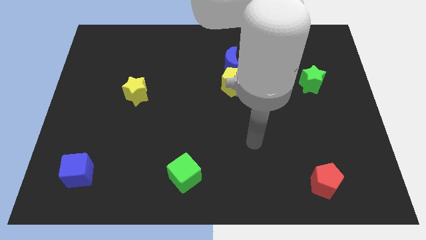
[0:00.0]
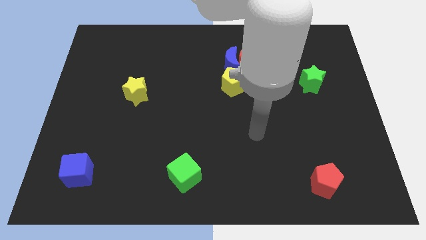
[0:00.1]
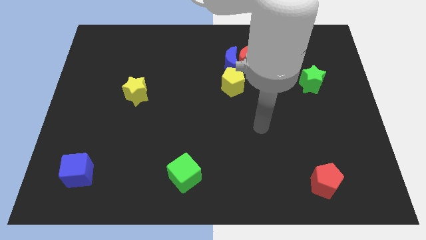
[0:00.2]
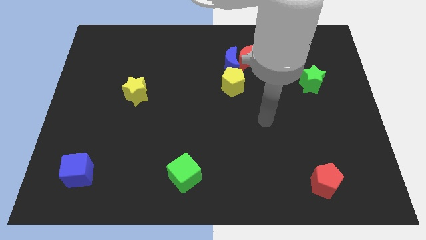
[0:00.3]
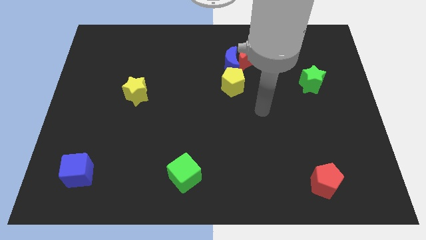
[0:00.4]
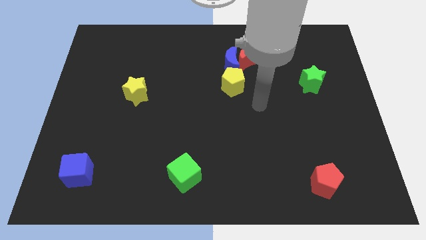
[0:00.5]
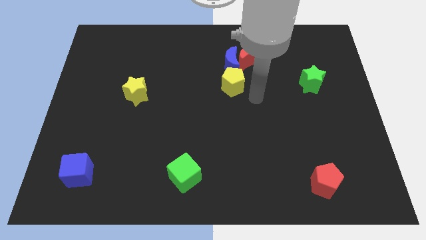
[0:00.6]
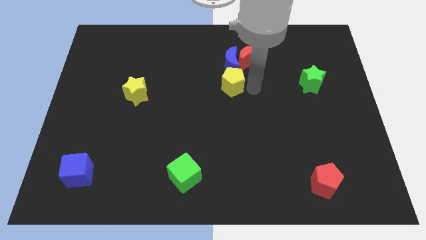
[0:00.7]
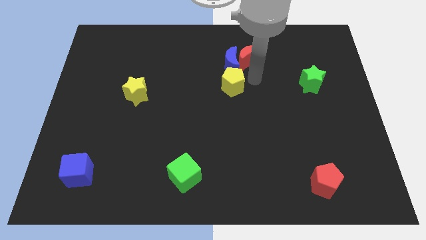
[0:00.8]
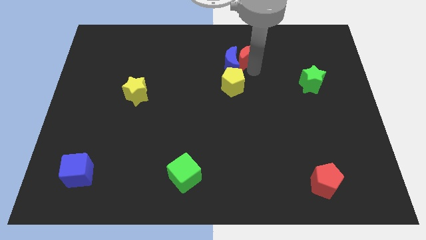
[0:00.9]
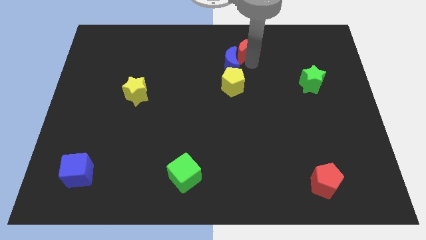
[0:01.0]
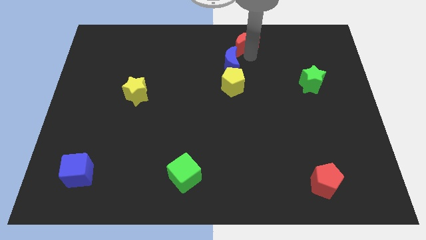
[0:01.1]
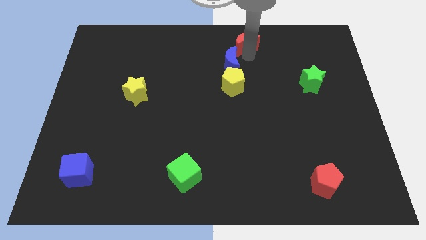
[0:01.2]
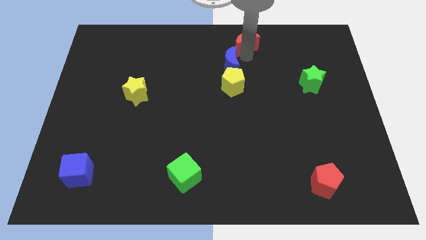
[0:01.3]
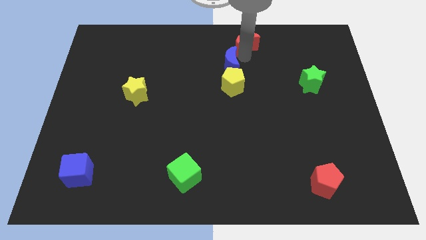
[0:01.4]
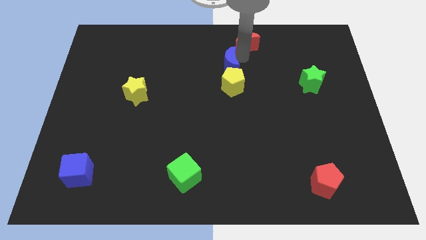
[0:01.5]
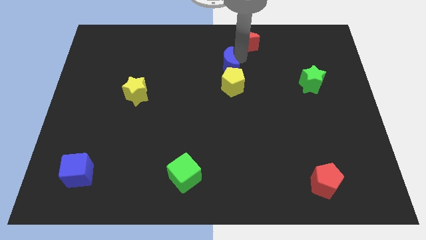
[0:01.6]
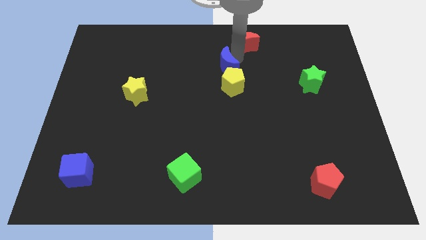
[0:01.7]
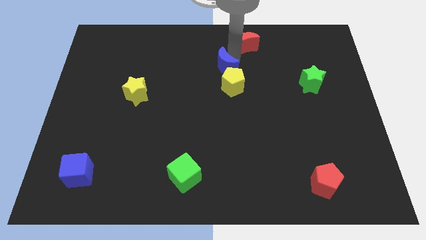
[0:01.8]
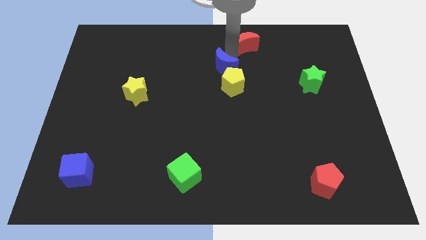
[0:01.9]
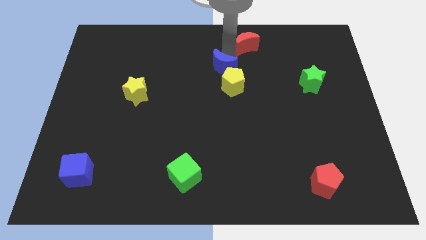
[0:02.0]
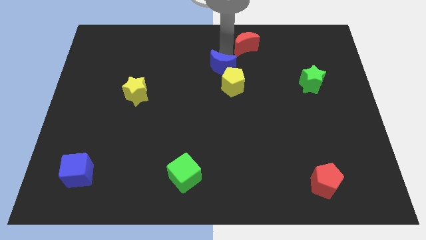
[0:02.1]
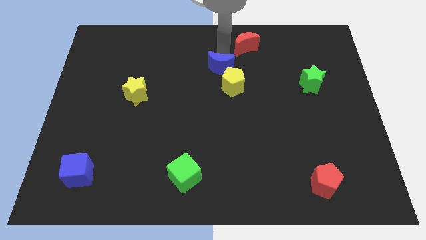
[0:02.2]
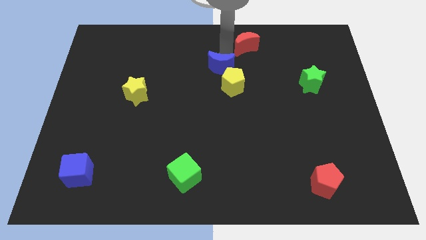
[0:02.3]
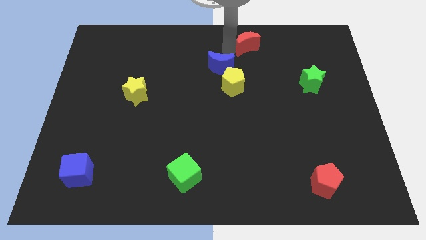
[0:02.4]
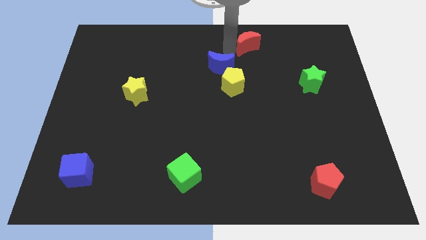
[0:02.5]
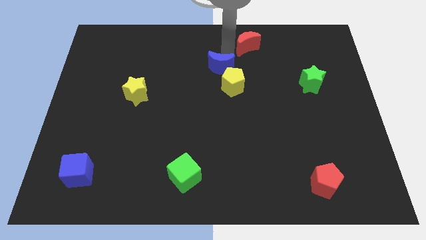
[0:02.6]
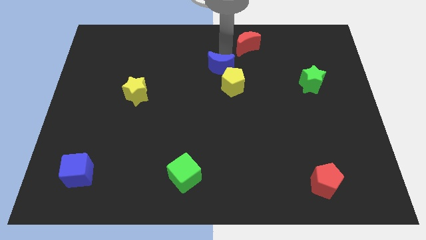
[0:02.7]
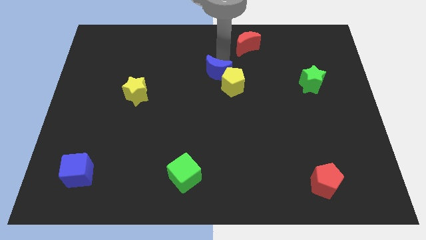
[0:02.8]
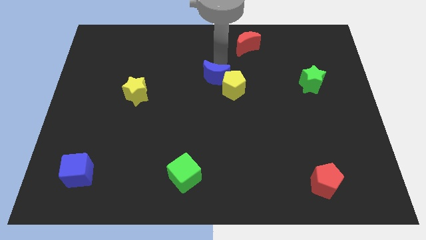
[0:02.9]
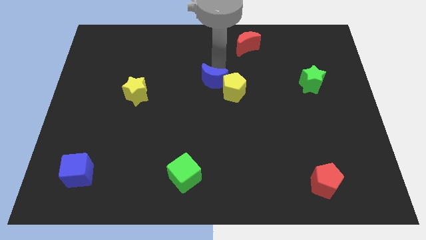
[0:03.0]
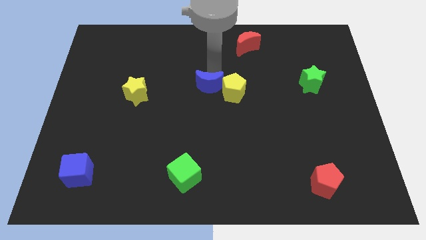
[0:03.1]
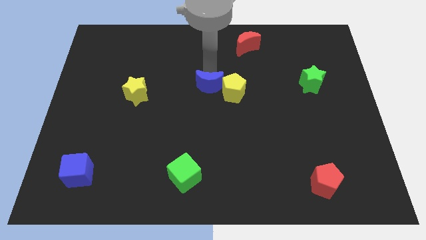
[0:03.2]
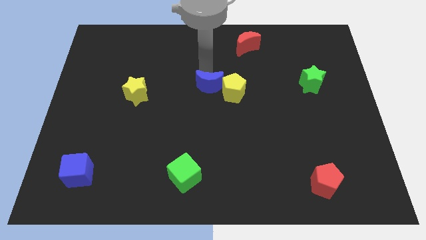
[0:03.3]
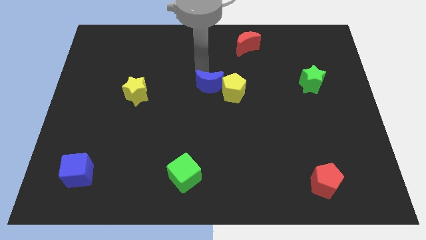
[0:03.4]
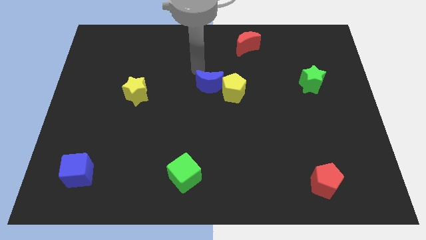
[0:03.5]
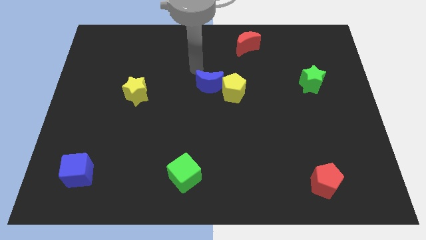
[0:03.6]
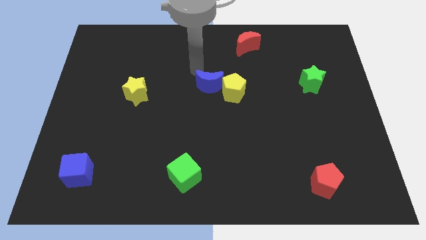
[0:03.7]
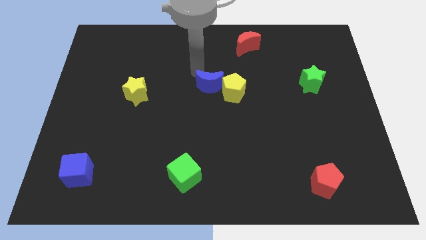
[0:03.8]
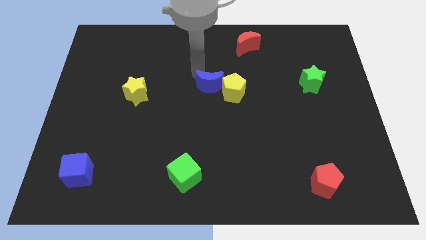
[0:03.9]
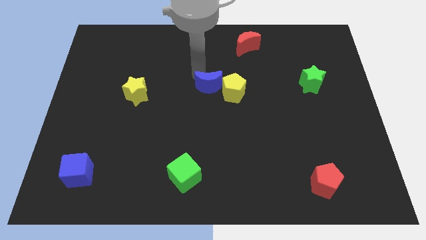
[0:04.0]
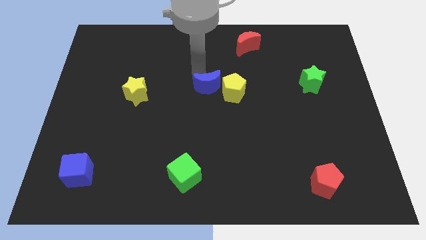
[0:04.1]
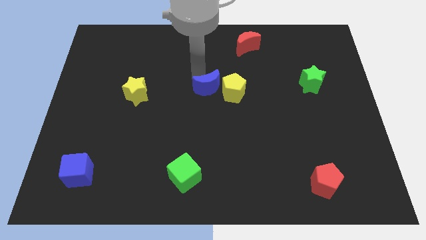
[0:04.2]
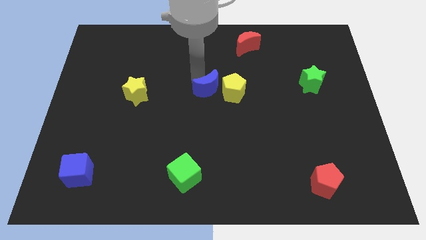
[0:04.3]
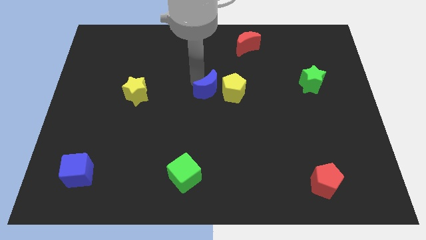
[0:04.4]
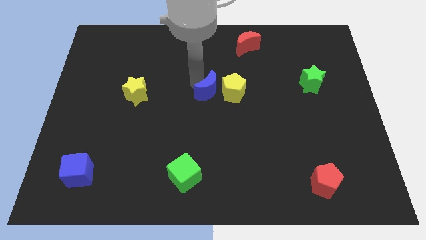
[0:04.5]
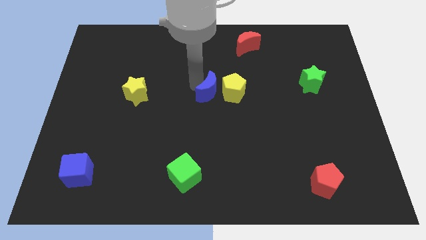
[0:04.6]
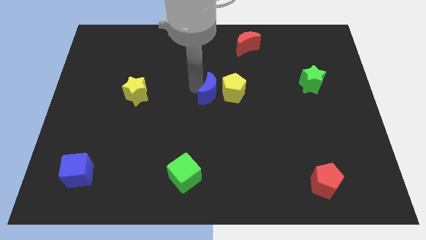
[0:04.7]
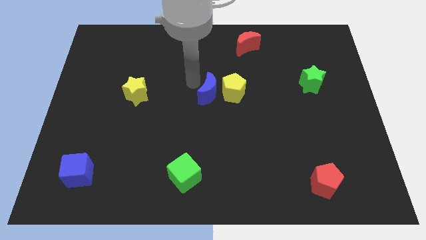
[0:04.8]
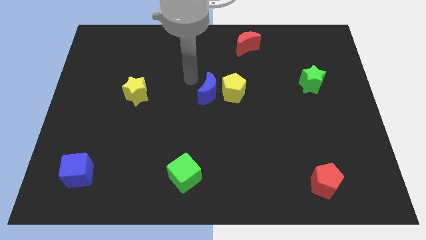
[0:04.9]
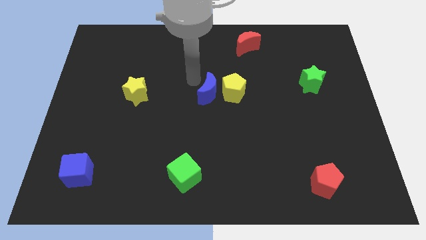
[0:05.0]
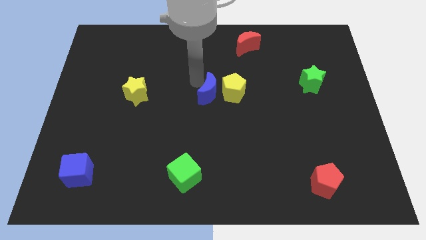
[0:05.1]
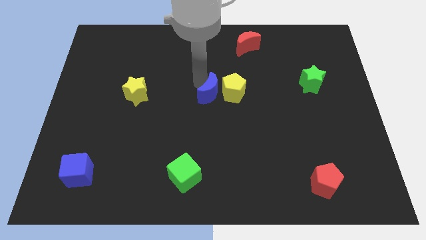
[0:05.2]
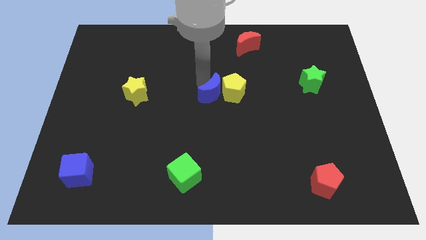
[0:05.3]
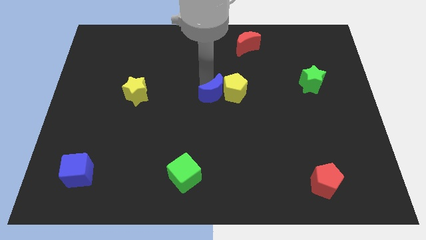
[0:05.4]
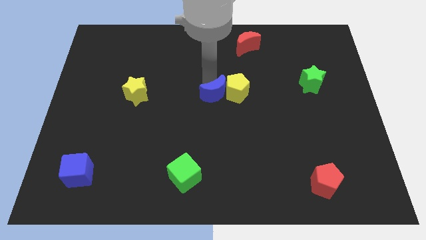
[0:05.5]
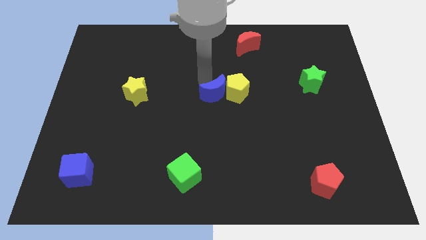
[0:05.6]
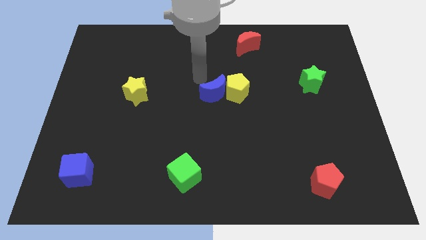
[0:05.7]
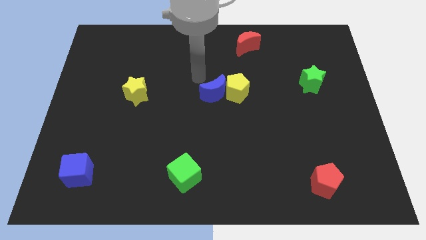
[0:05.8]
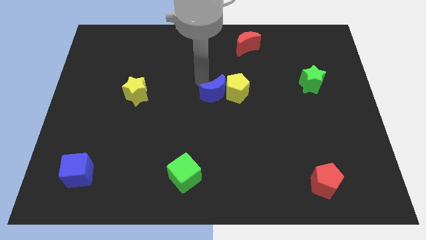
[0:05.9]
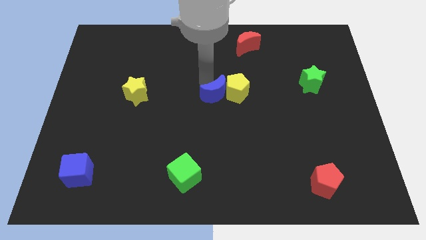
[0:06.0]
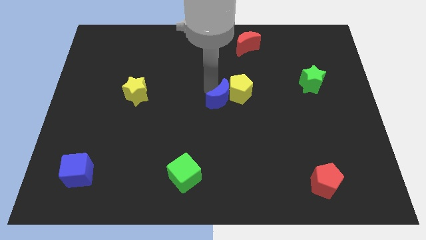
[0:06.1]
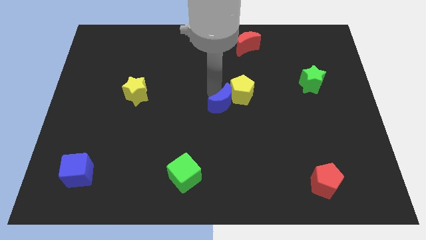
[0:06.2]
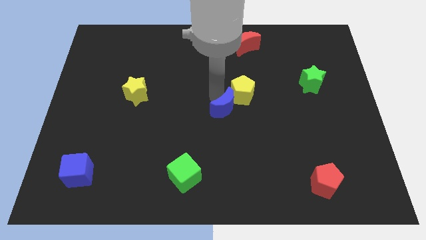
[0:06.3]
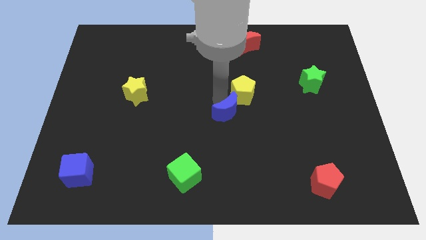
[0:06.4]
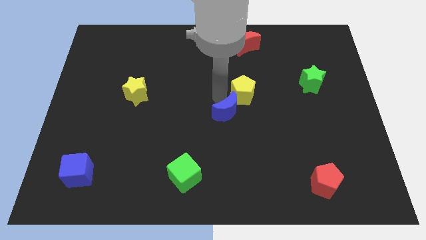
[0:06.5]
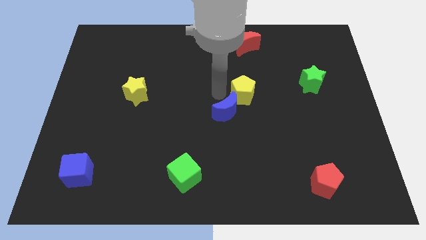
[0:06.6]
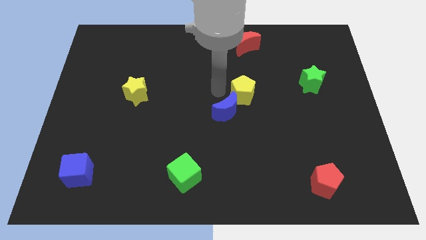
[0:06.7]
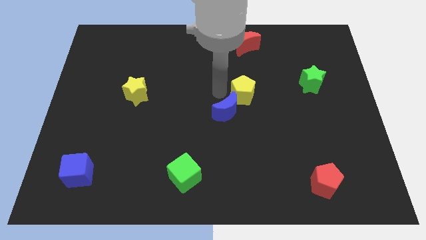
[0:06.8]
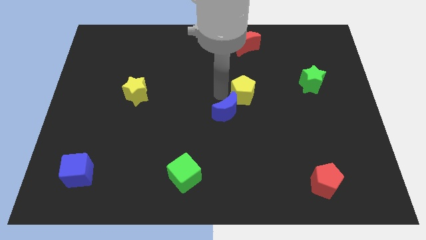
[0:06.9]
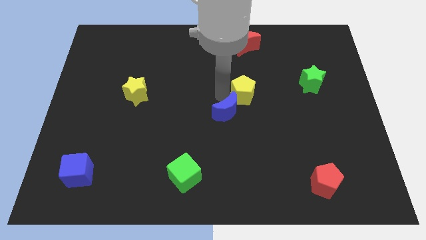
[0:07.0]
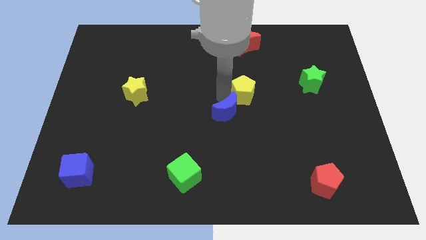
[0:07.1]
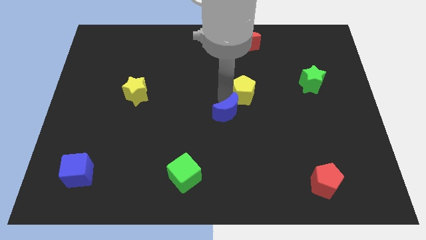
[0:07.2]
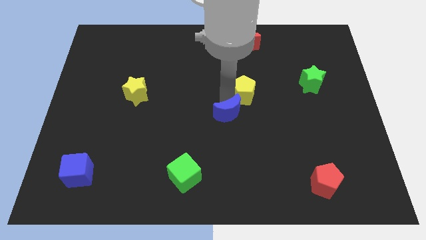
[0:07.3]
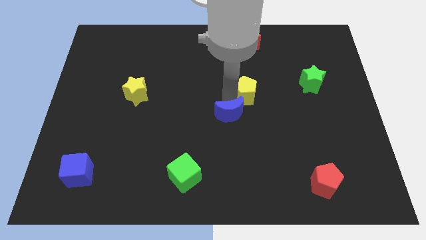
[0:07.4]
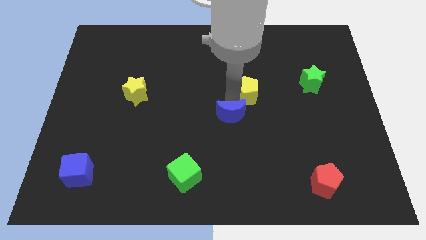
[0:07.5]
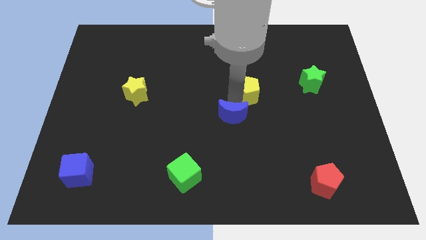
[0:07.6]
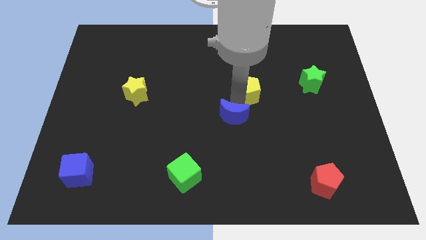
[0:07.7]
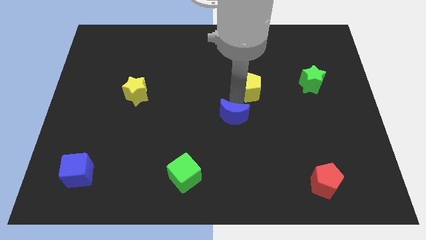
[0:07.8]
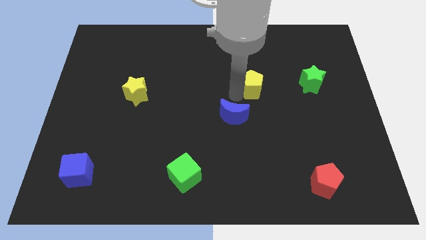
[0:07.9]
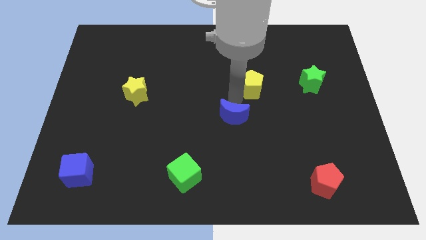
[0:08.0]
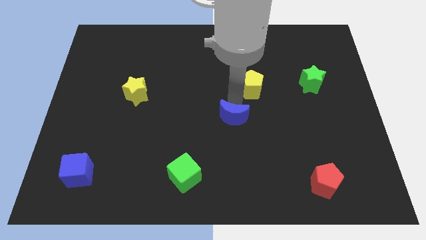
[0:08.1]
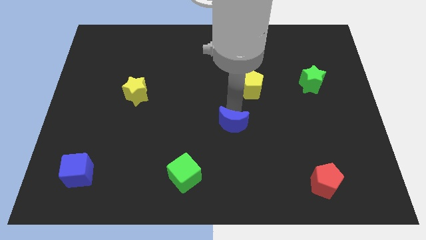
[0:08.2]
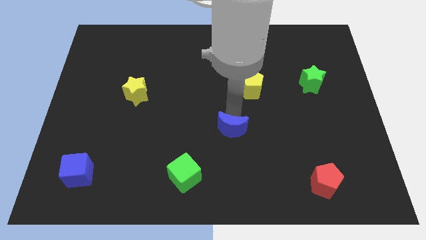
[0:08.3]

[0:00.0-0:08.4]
move the blue moon downwards
